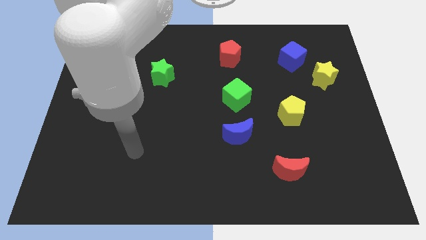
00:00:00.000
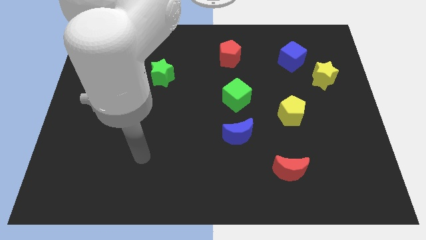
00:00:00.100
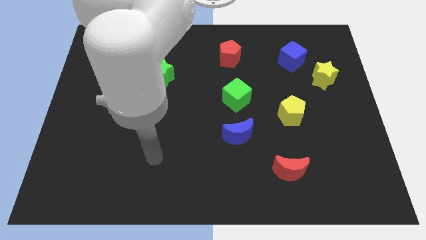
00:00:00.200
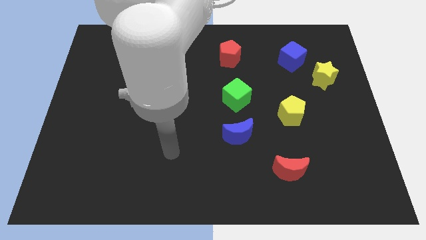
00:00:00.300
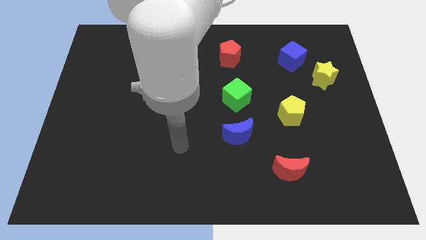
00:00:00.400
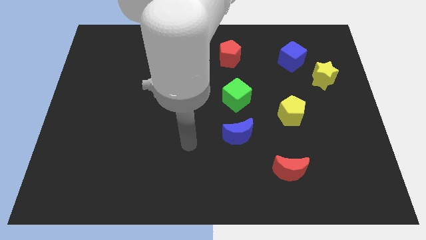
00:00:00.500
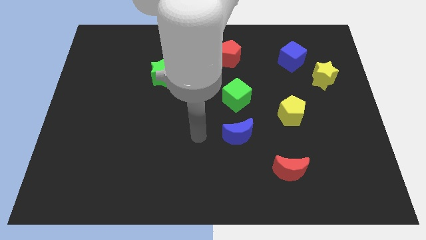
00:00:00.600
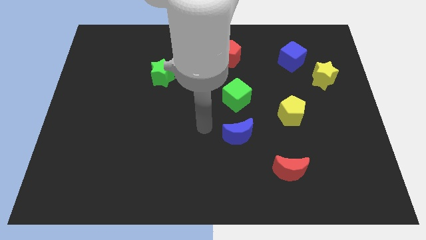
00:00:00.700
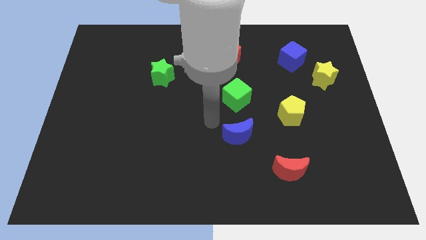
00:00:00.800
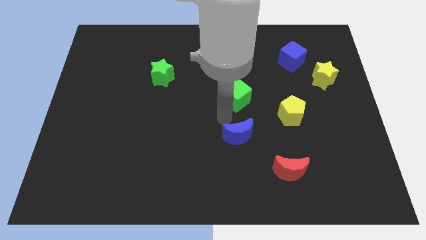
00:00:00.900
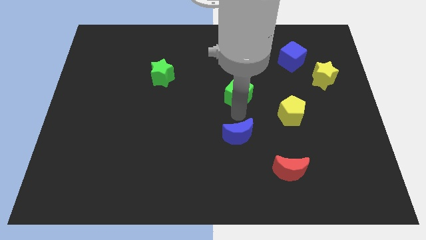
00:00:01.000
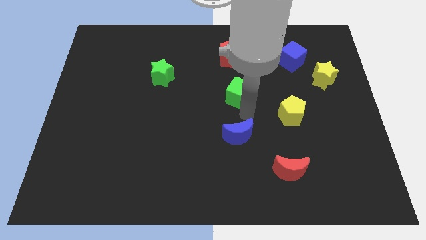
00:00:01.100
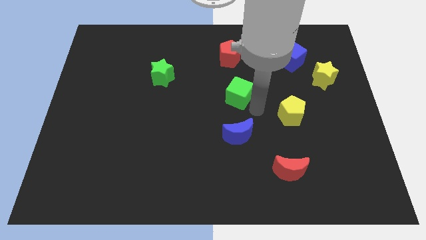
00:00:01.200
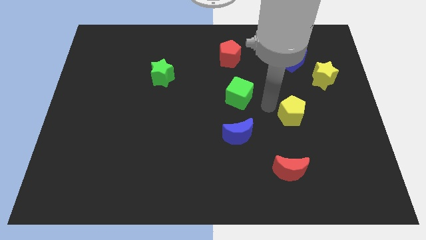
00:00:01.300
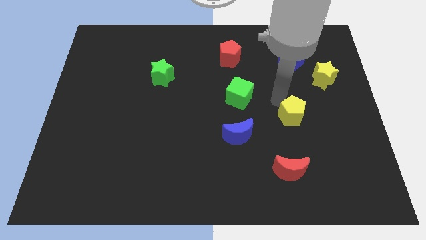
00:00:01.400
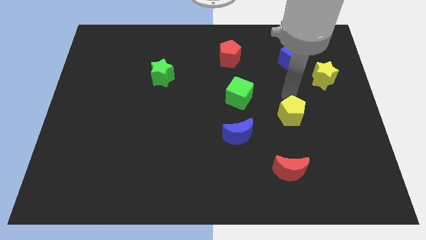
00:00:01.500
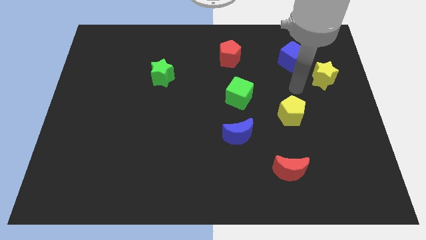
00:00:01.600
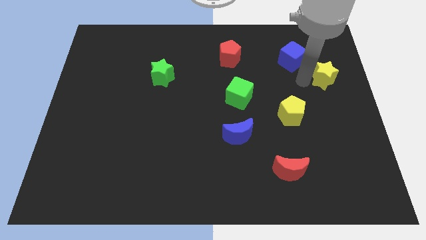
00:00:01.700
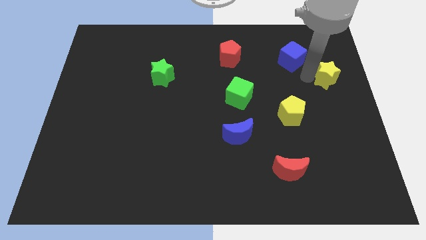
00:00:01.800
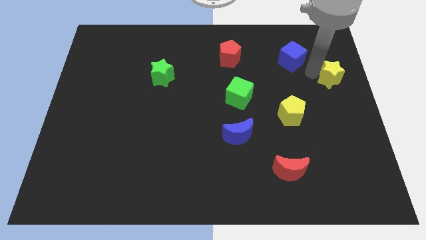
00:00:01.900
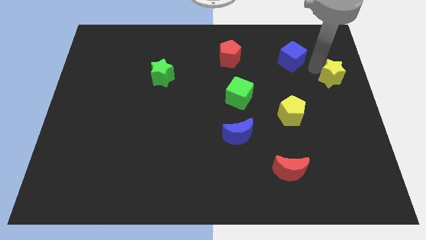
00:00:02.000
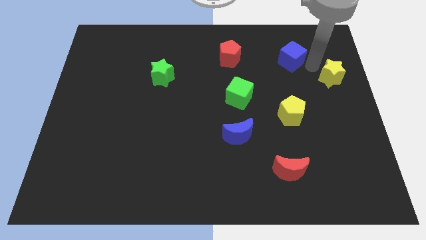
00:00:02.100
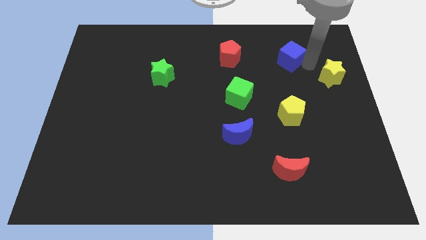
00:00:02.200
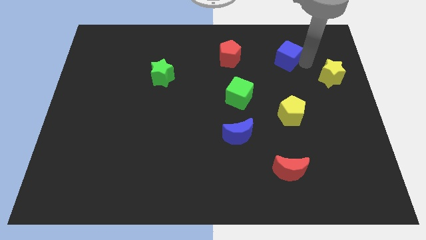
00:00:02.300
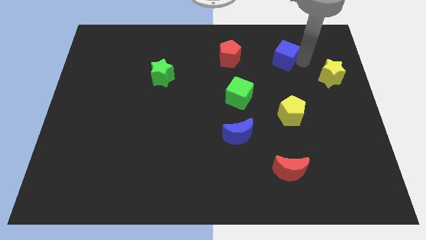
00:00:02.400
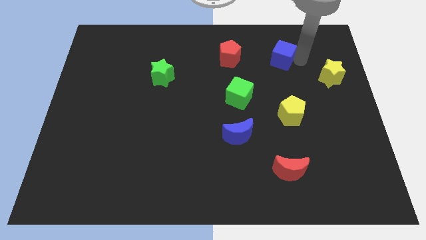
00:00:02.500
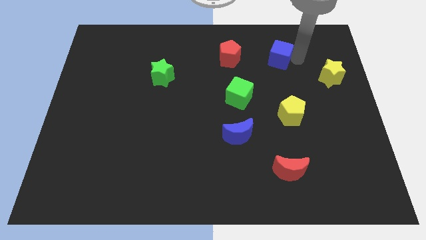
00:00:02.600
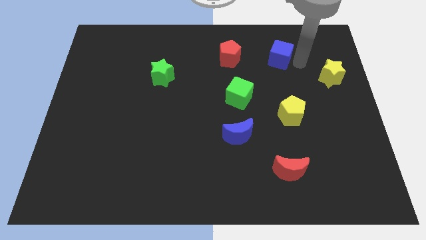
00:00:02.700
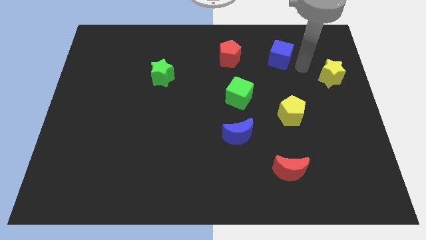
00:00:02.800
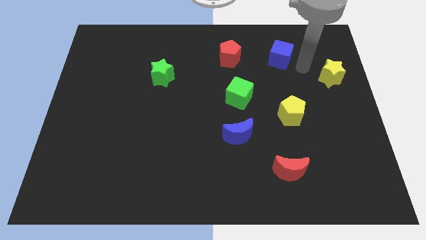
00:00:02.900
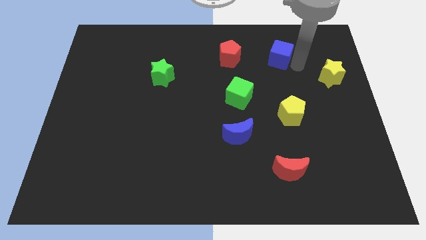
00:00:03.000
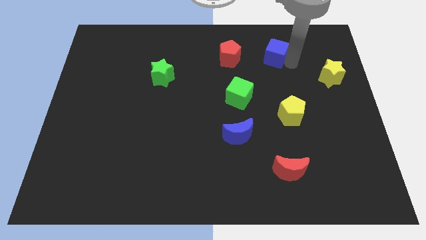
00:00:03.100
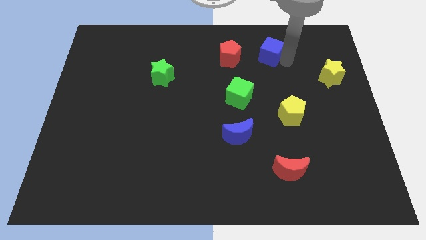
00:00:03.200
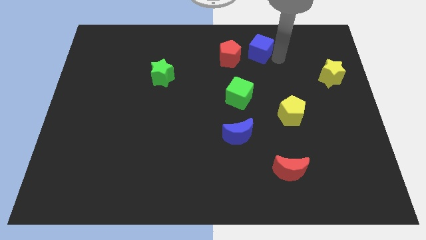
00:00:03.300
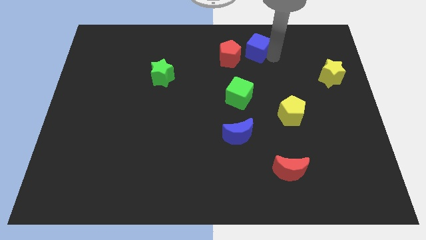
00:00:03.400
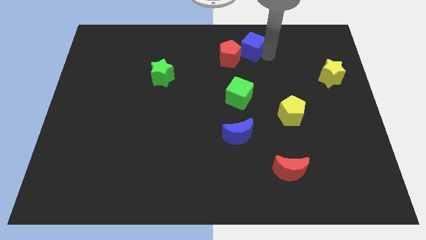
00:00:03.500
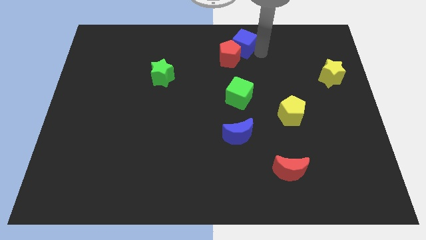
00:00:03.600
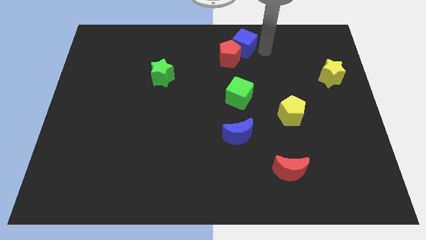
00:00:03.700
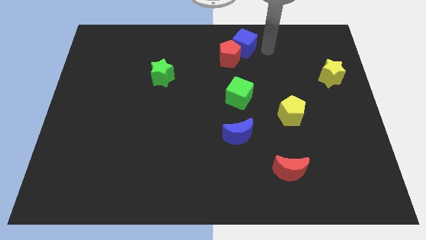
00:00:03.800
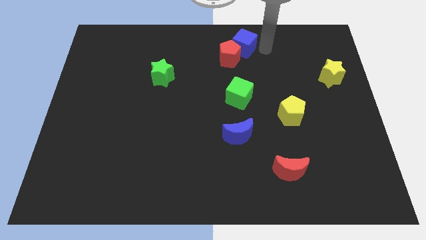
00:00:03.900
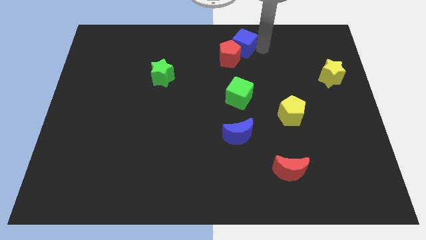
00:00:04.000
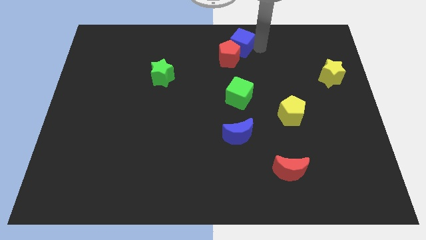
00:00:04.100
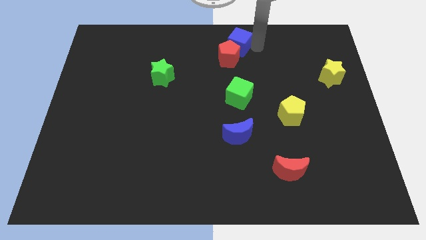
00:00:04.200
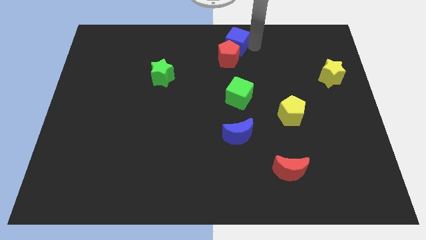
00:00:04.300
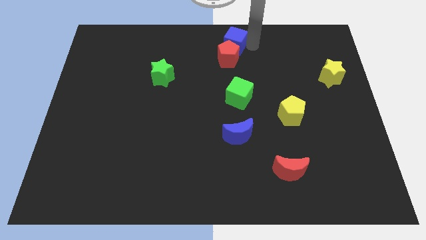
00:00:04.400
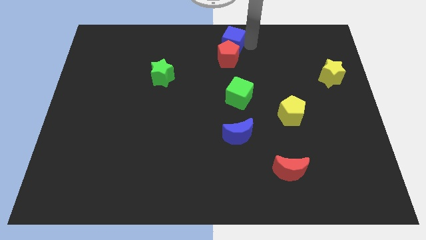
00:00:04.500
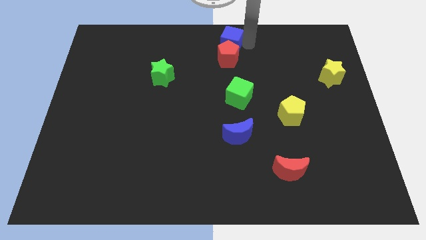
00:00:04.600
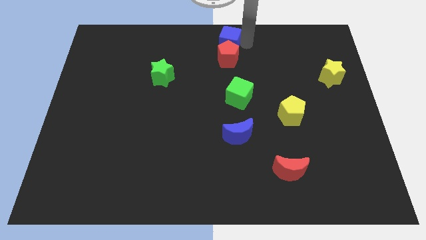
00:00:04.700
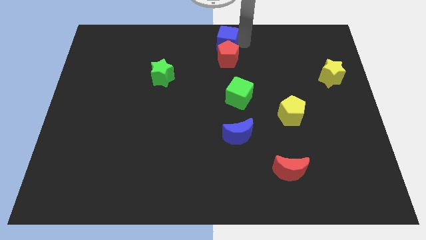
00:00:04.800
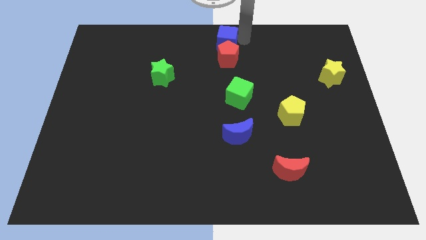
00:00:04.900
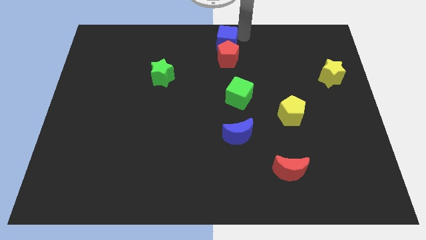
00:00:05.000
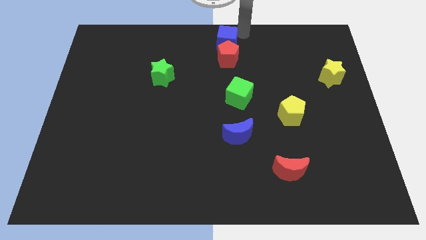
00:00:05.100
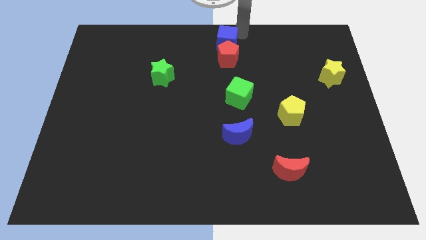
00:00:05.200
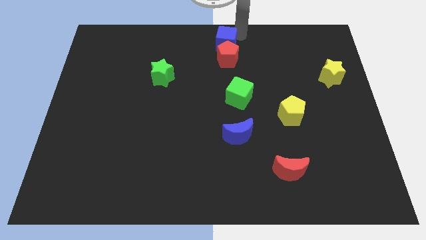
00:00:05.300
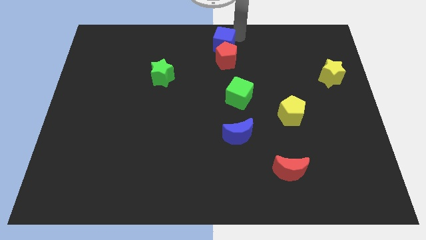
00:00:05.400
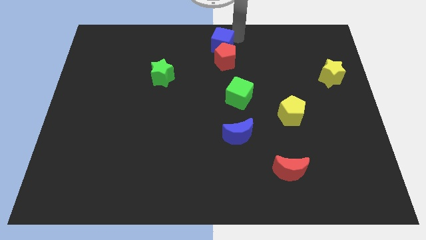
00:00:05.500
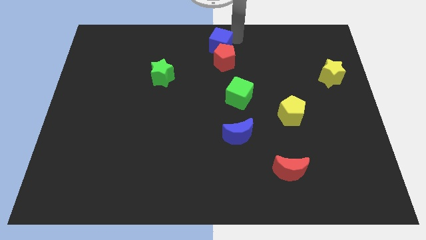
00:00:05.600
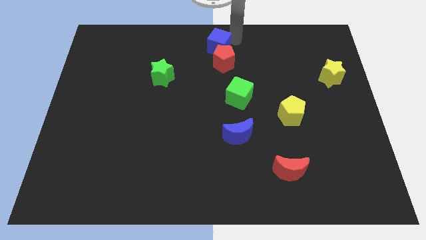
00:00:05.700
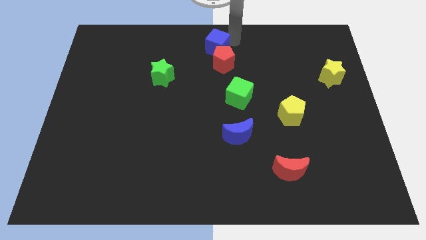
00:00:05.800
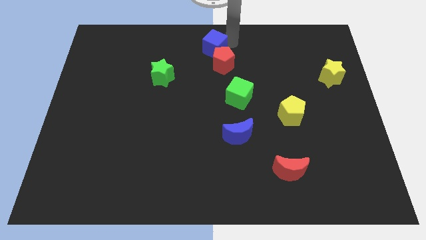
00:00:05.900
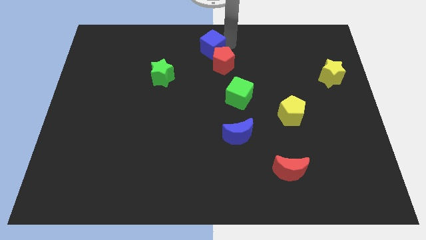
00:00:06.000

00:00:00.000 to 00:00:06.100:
move the blue cube left

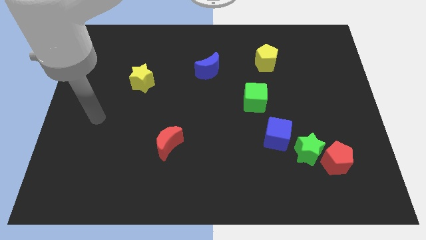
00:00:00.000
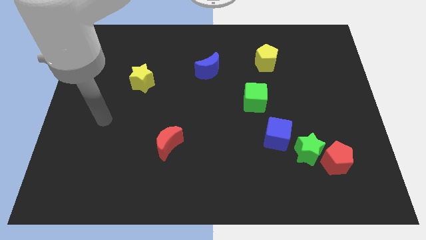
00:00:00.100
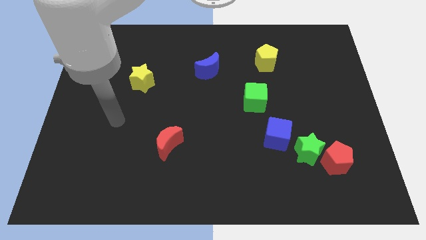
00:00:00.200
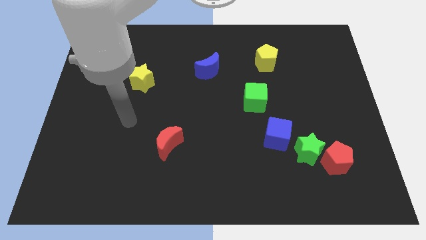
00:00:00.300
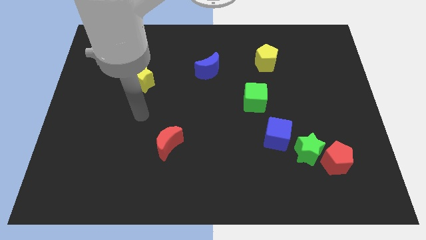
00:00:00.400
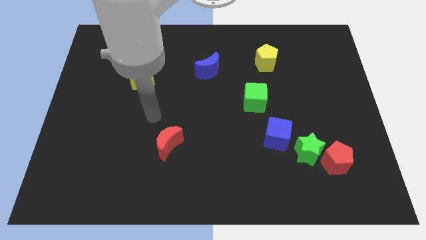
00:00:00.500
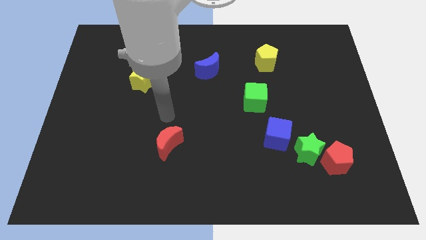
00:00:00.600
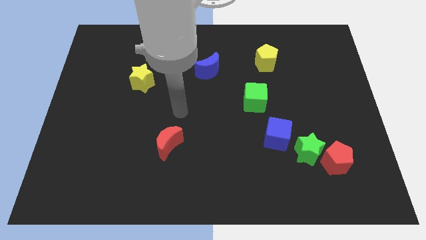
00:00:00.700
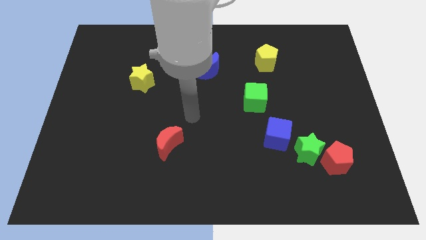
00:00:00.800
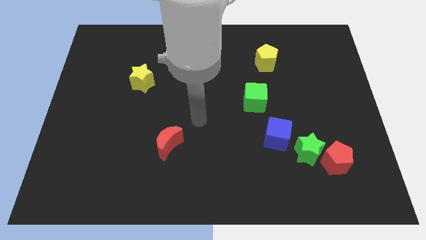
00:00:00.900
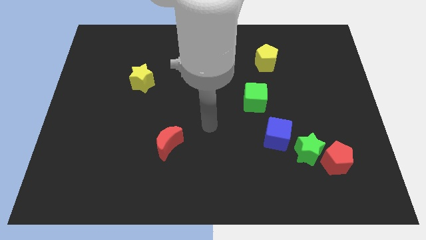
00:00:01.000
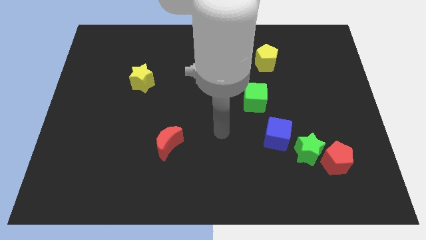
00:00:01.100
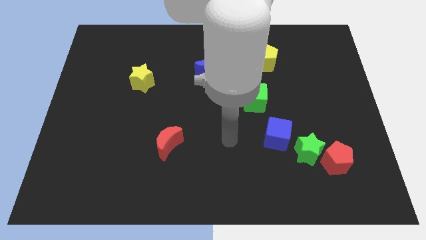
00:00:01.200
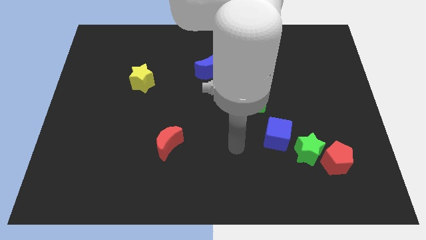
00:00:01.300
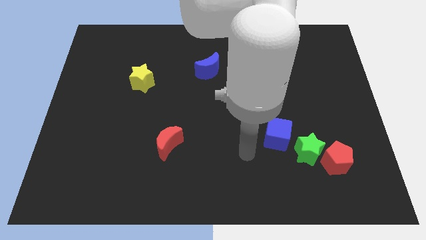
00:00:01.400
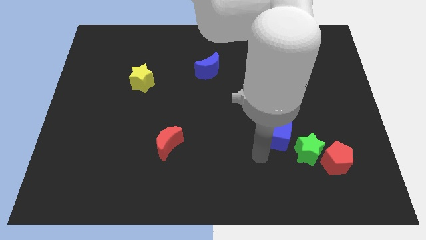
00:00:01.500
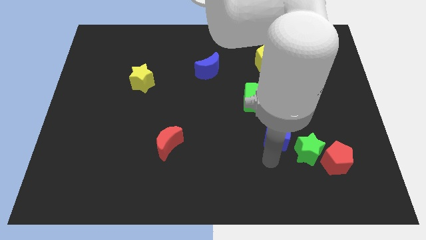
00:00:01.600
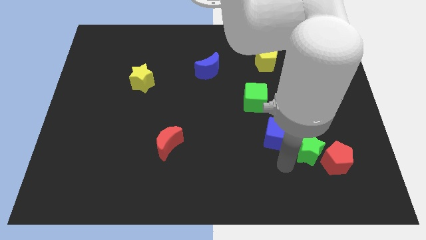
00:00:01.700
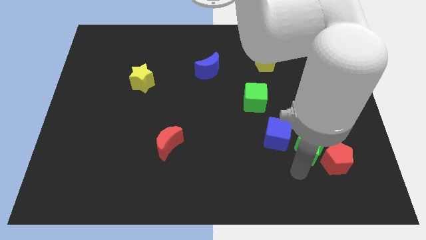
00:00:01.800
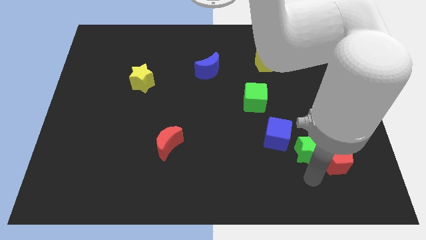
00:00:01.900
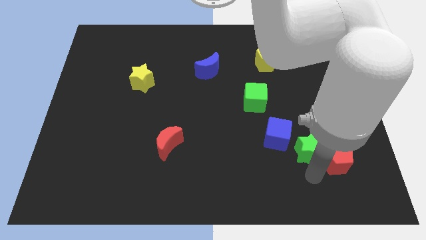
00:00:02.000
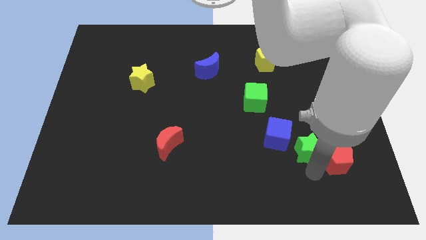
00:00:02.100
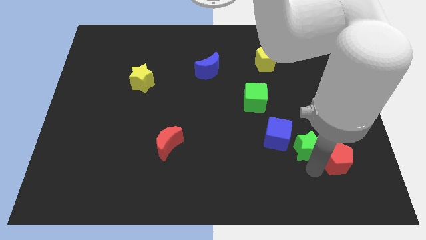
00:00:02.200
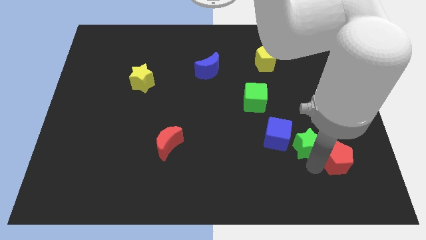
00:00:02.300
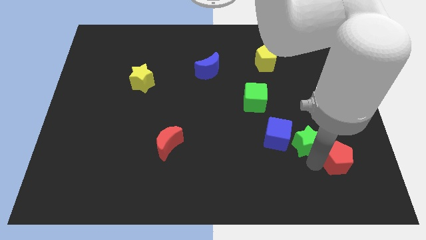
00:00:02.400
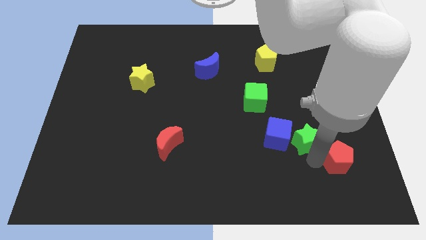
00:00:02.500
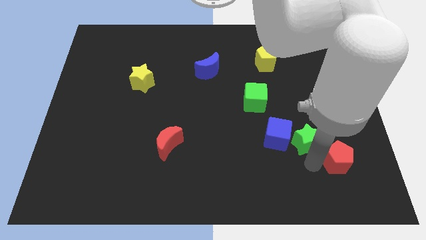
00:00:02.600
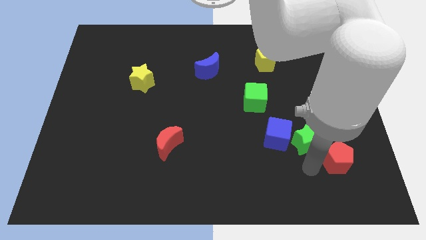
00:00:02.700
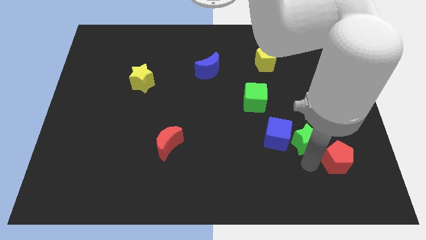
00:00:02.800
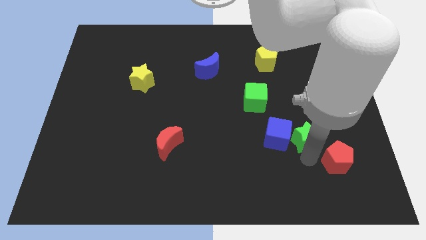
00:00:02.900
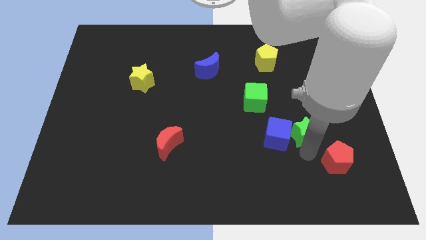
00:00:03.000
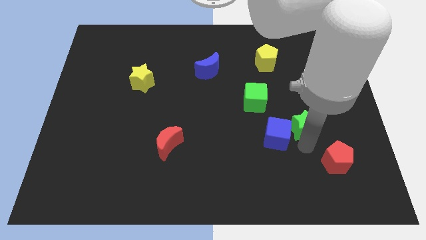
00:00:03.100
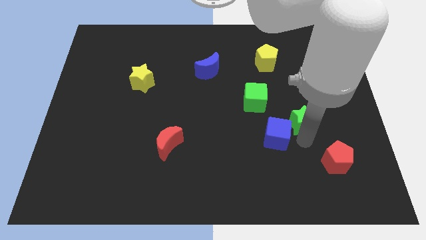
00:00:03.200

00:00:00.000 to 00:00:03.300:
push the green star upwards a bit
